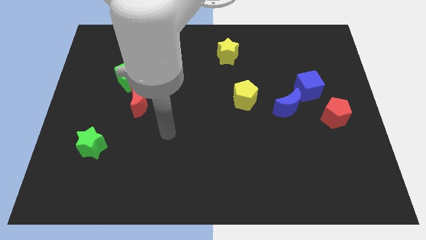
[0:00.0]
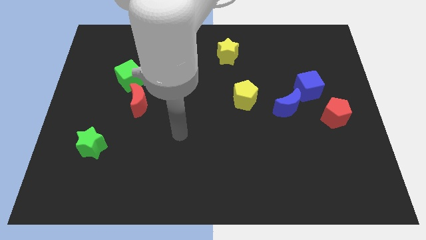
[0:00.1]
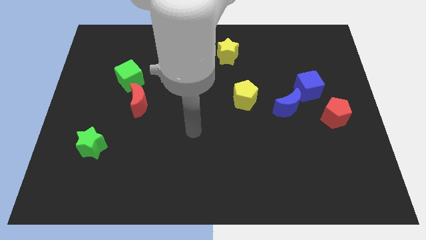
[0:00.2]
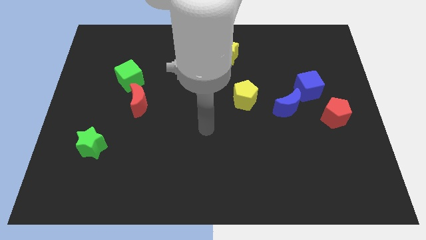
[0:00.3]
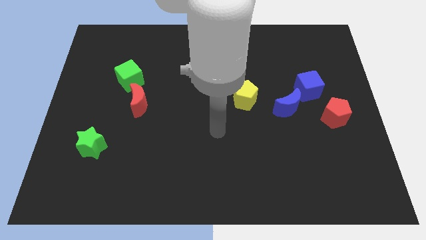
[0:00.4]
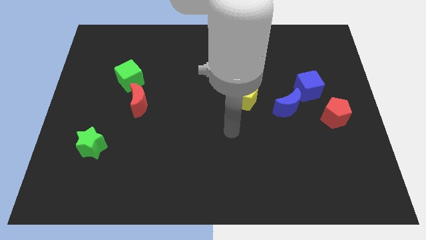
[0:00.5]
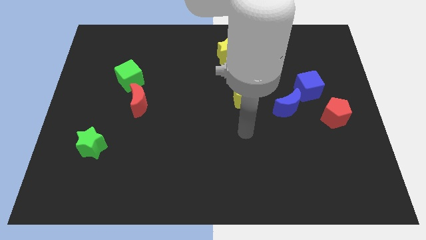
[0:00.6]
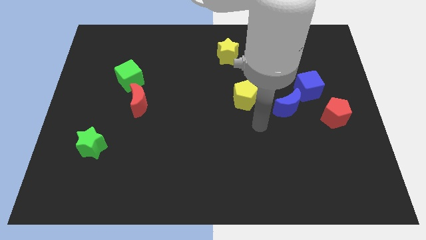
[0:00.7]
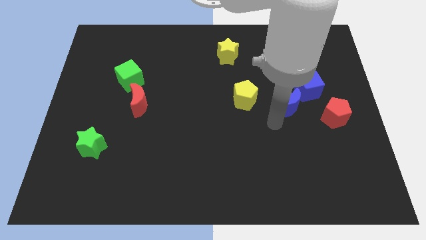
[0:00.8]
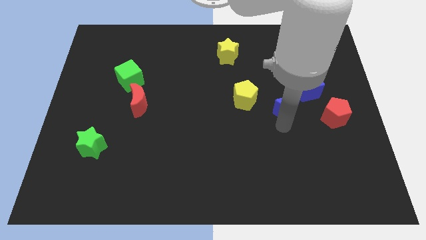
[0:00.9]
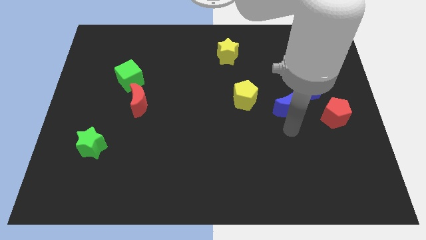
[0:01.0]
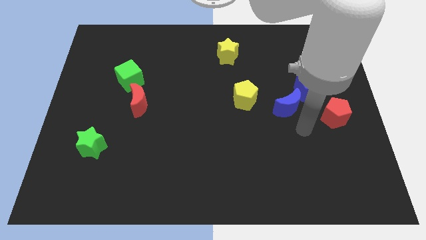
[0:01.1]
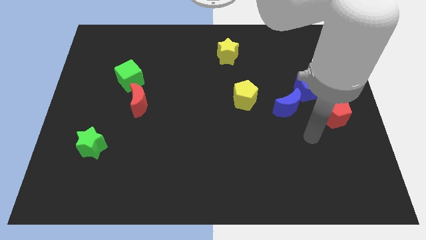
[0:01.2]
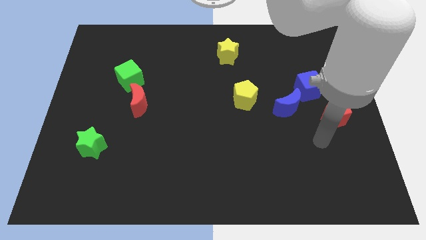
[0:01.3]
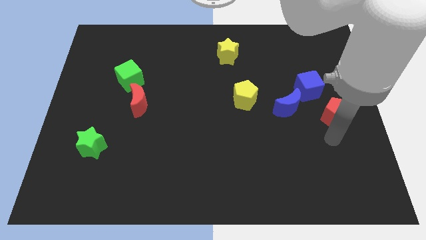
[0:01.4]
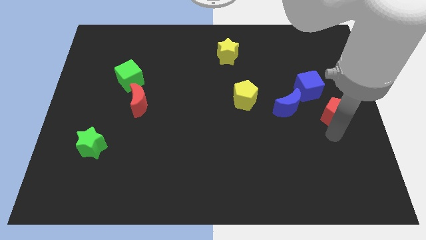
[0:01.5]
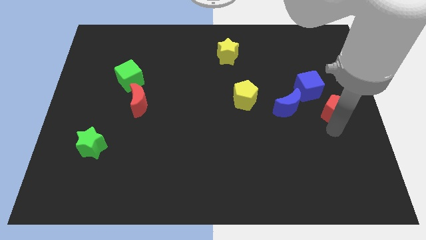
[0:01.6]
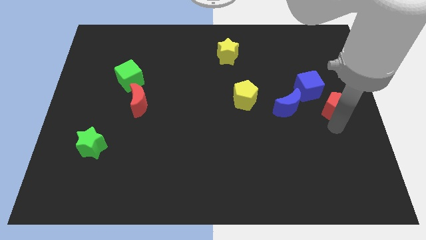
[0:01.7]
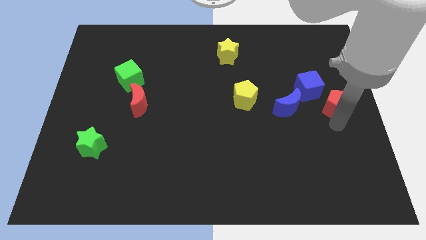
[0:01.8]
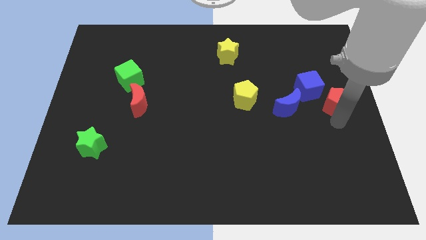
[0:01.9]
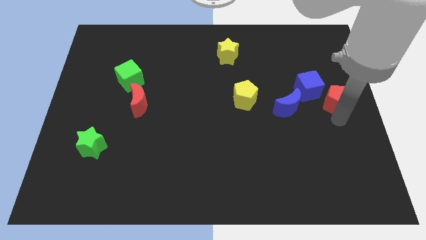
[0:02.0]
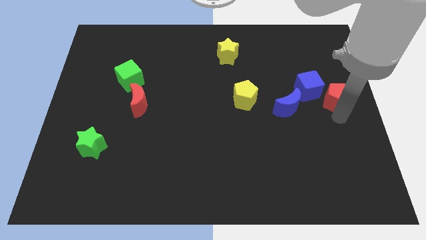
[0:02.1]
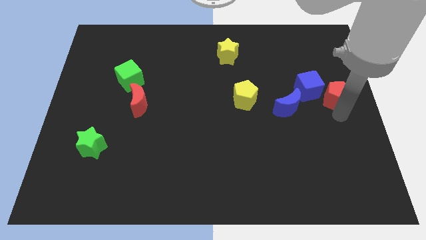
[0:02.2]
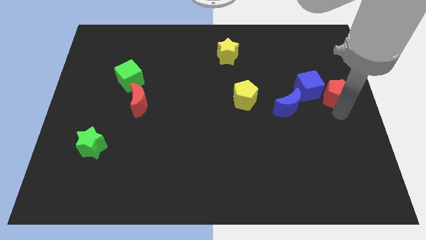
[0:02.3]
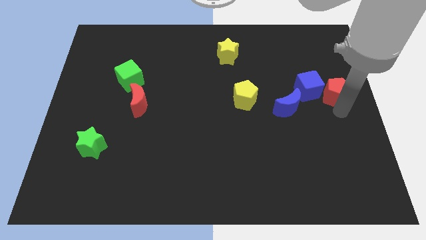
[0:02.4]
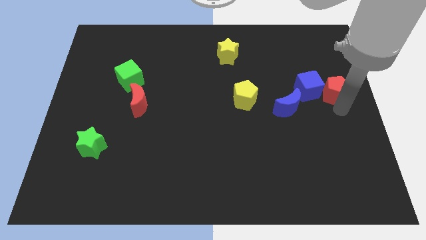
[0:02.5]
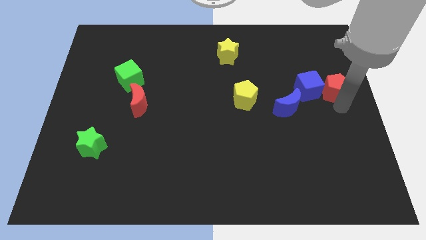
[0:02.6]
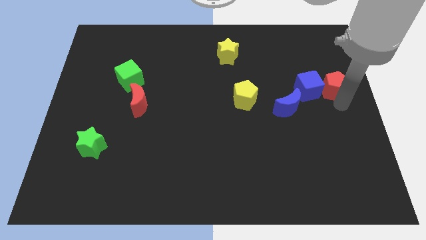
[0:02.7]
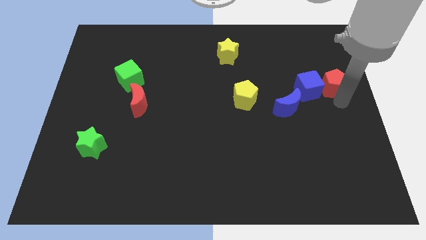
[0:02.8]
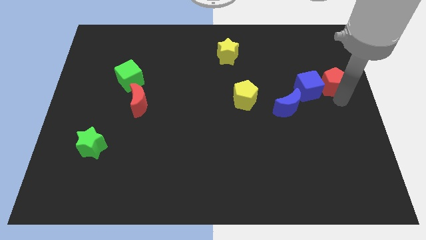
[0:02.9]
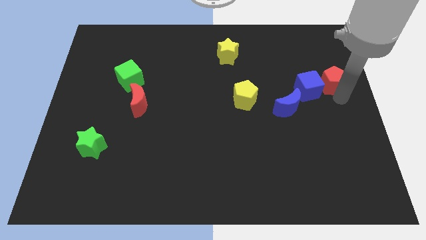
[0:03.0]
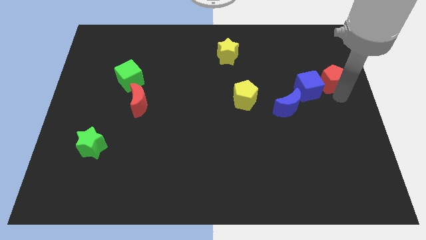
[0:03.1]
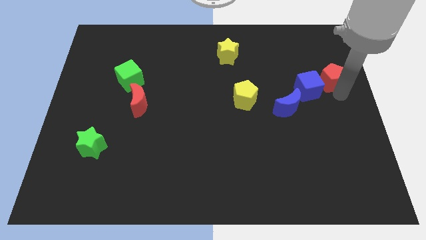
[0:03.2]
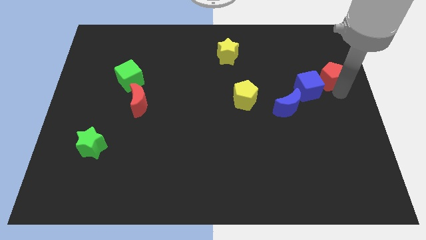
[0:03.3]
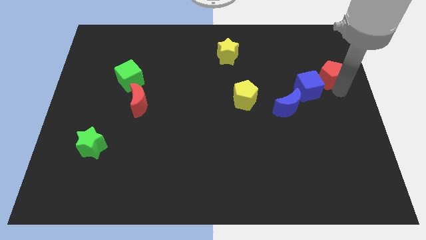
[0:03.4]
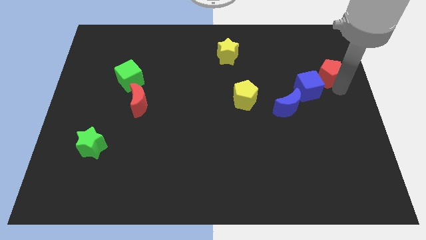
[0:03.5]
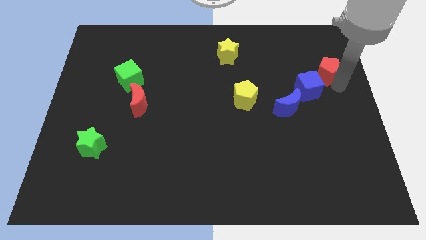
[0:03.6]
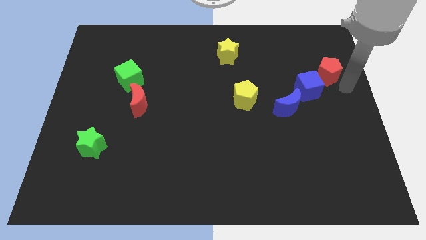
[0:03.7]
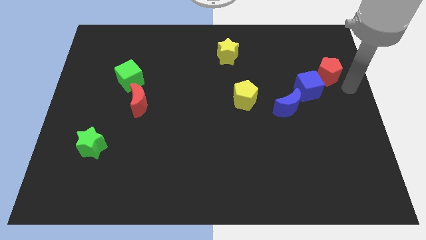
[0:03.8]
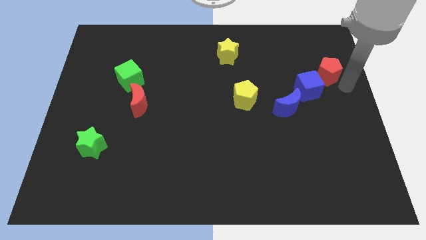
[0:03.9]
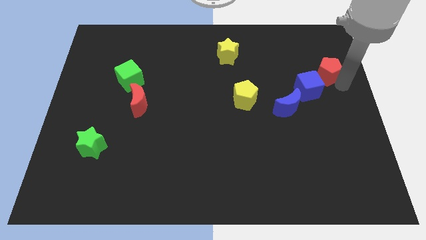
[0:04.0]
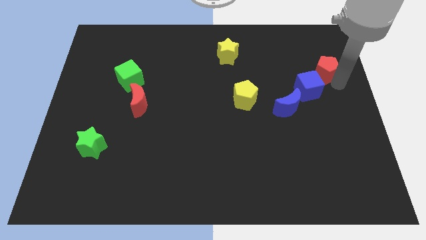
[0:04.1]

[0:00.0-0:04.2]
move the red pentagon to the top side of the blue cube

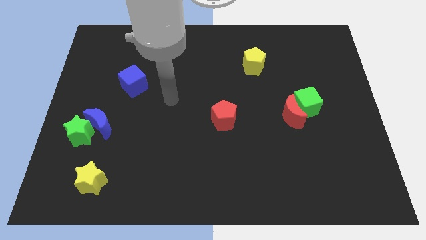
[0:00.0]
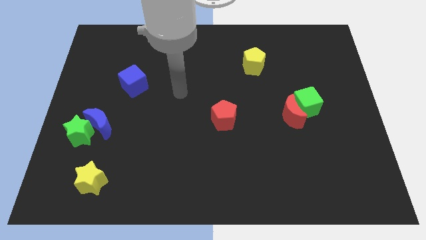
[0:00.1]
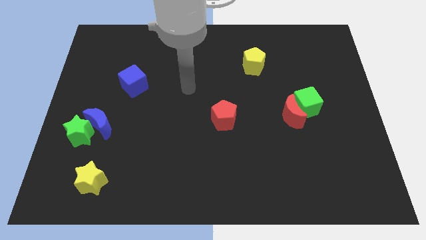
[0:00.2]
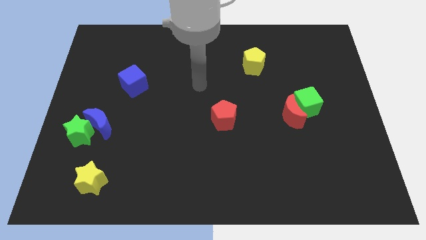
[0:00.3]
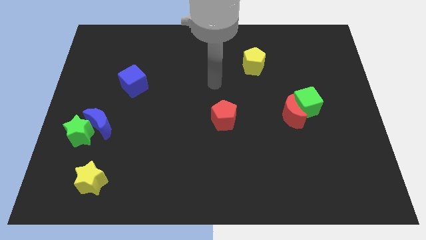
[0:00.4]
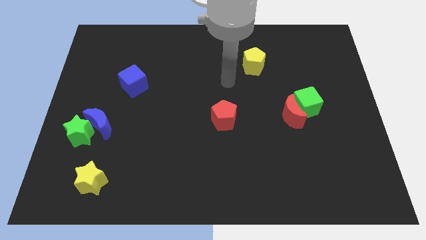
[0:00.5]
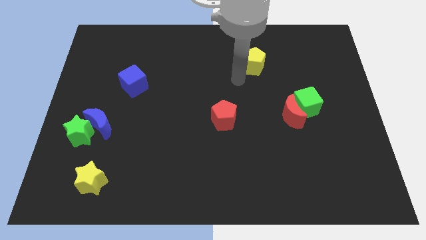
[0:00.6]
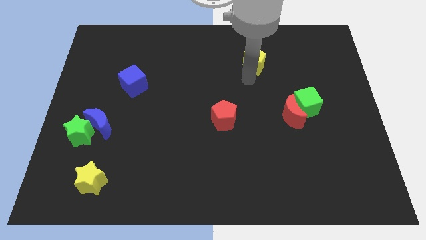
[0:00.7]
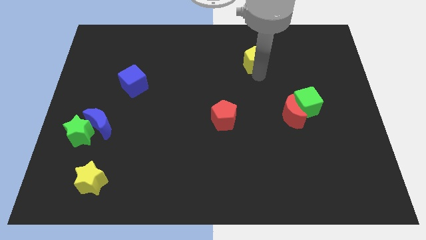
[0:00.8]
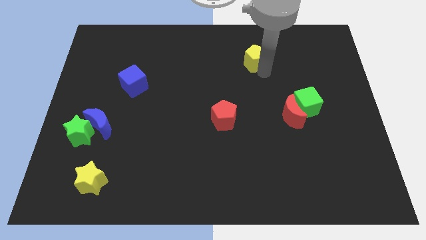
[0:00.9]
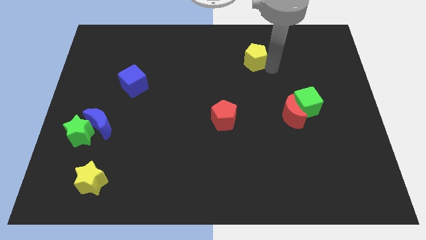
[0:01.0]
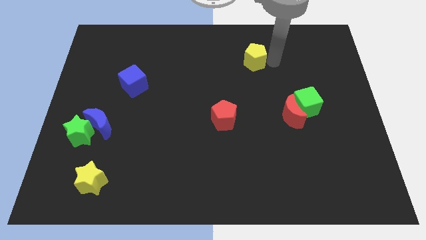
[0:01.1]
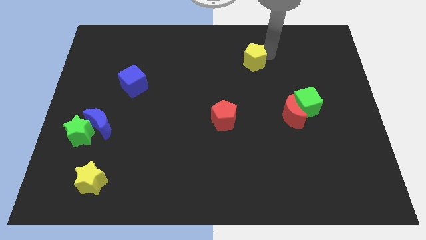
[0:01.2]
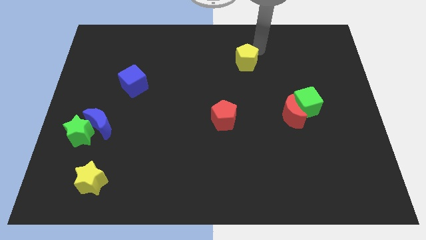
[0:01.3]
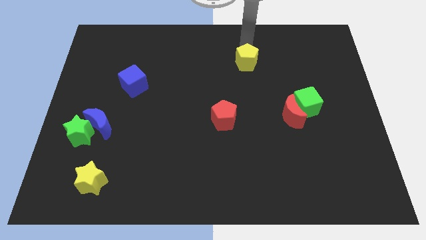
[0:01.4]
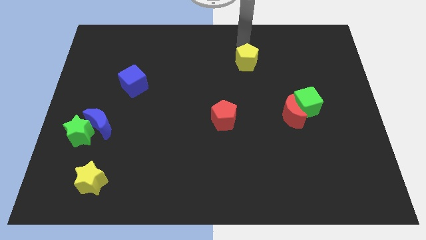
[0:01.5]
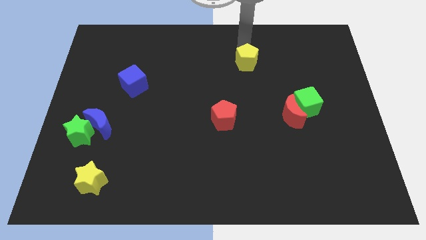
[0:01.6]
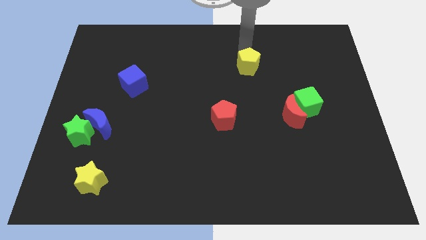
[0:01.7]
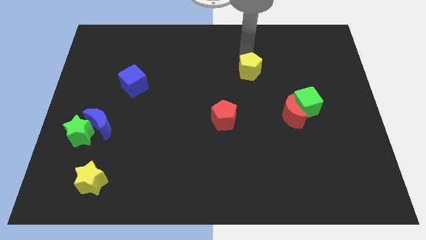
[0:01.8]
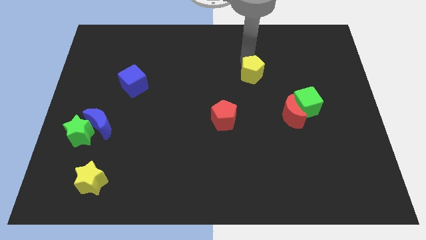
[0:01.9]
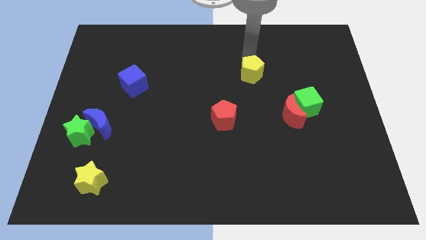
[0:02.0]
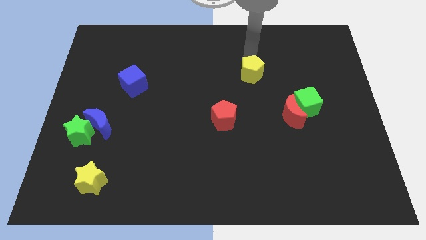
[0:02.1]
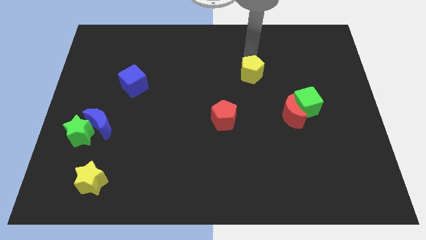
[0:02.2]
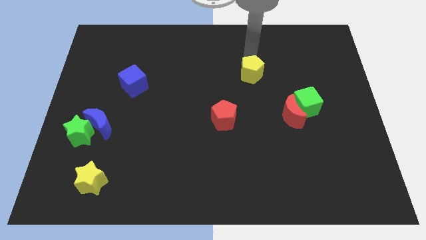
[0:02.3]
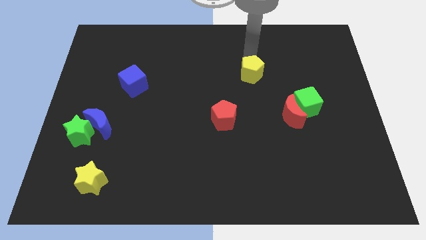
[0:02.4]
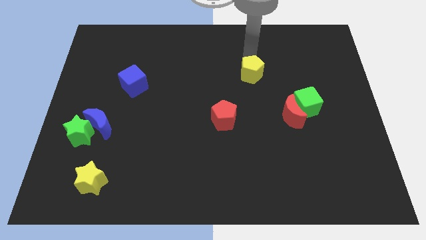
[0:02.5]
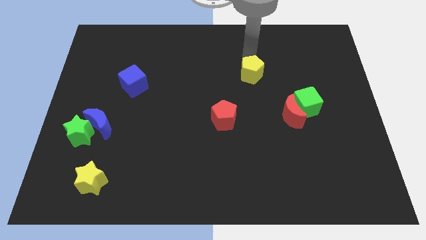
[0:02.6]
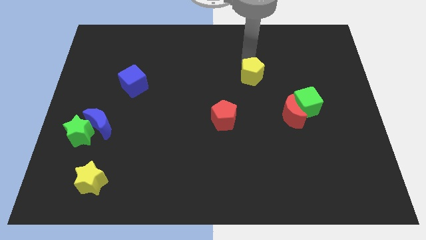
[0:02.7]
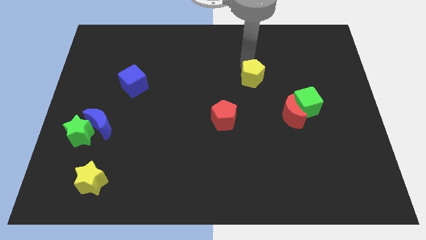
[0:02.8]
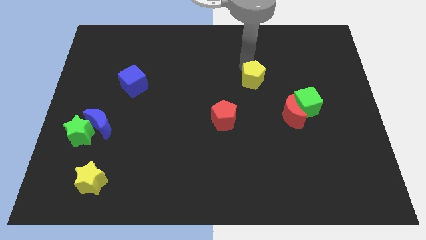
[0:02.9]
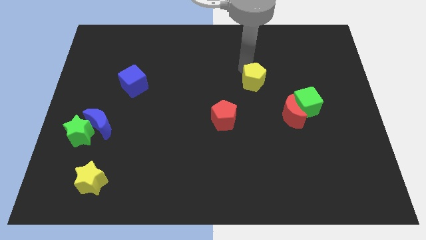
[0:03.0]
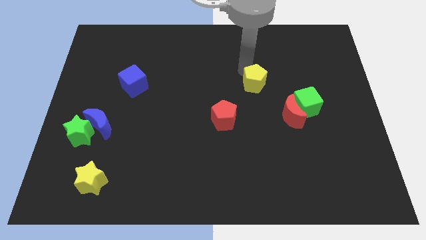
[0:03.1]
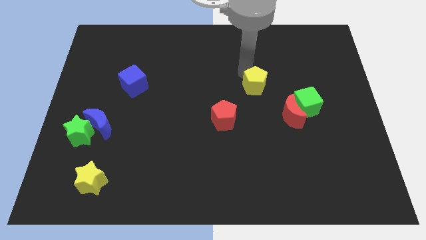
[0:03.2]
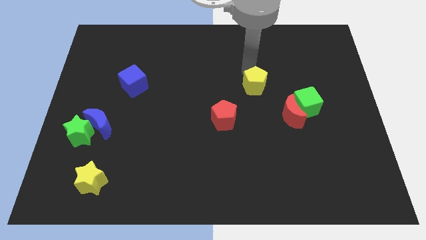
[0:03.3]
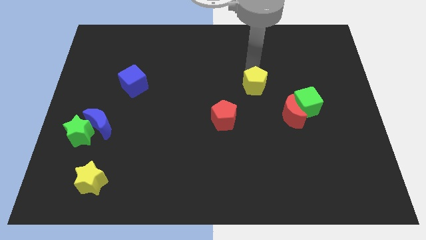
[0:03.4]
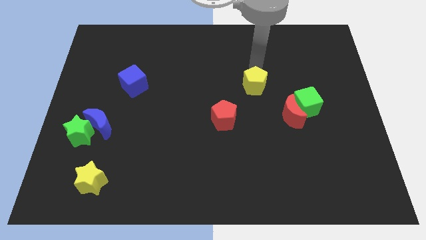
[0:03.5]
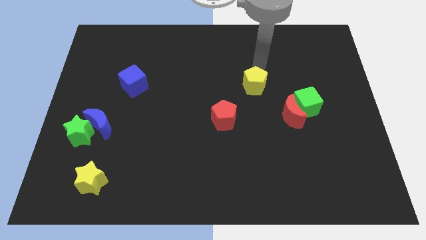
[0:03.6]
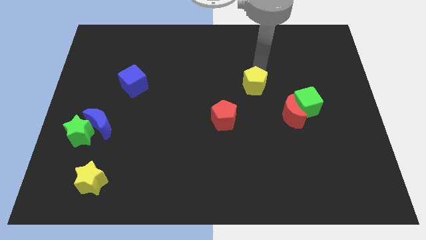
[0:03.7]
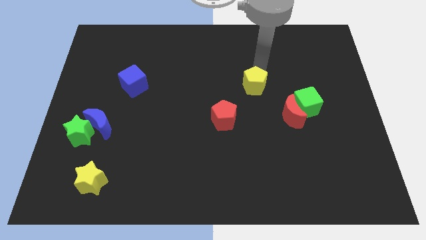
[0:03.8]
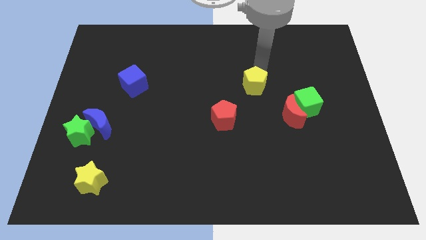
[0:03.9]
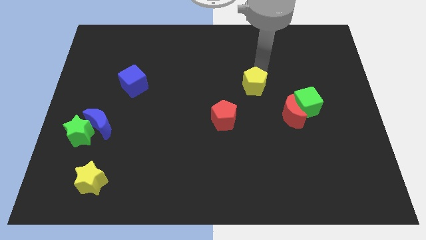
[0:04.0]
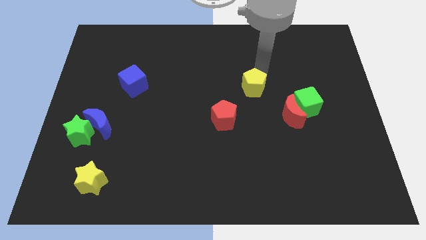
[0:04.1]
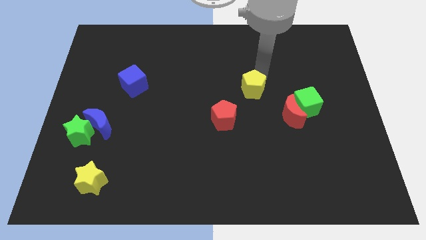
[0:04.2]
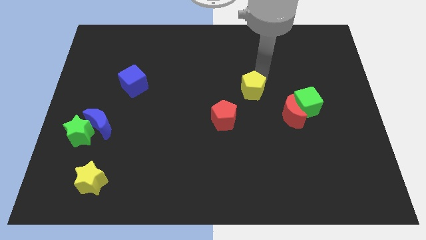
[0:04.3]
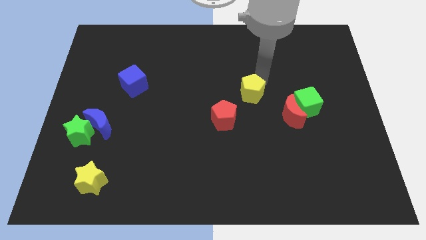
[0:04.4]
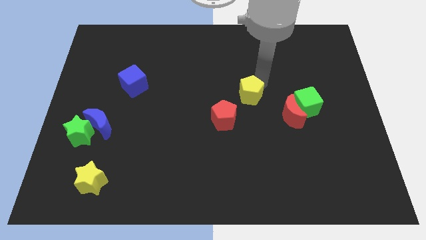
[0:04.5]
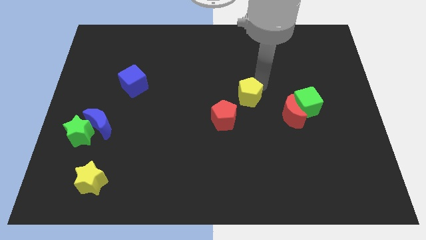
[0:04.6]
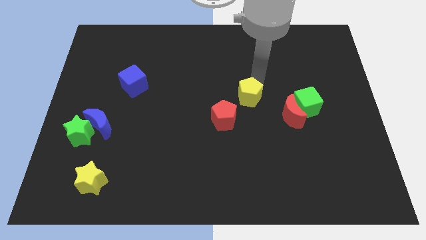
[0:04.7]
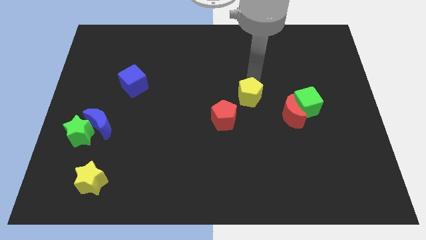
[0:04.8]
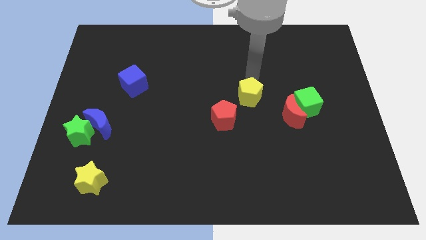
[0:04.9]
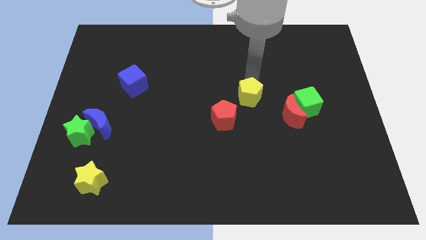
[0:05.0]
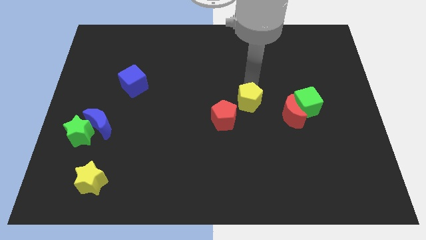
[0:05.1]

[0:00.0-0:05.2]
put the yellow pentagon to the left of the red moon
